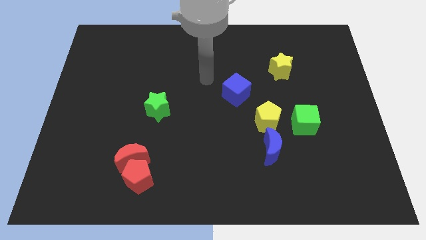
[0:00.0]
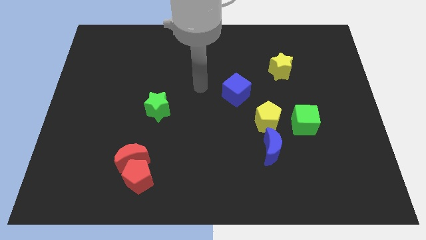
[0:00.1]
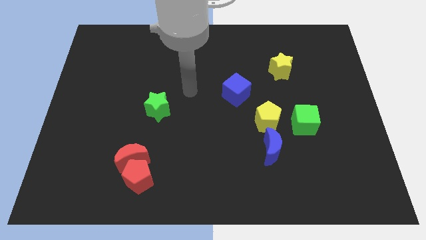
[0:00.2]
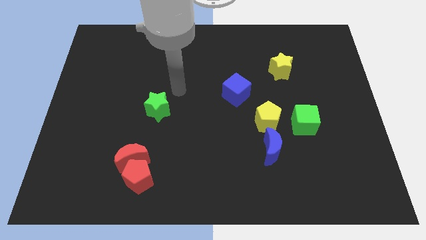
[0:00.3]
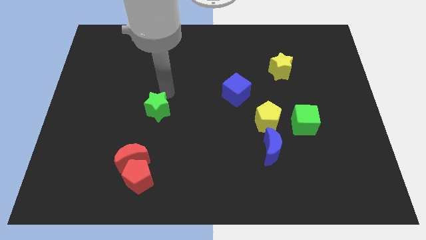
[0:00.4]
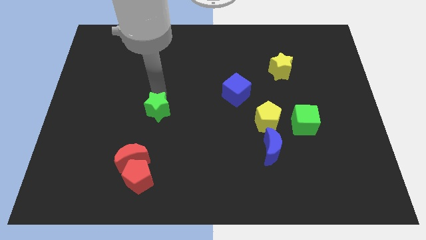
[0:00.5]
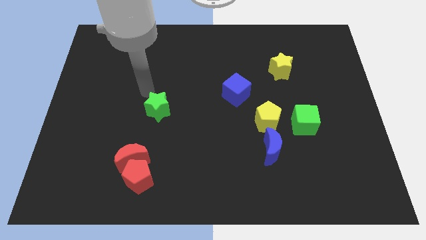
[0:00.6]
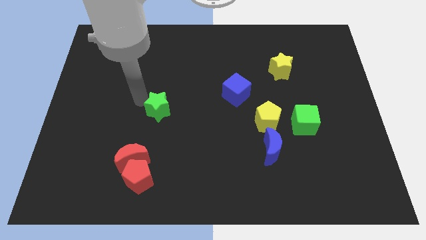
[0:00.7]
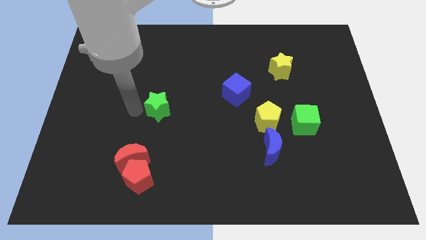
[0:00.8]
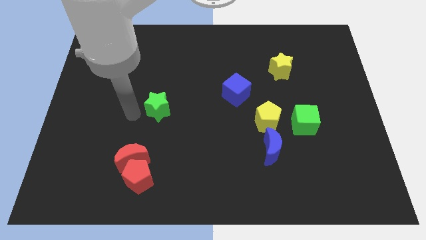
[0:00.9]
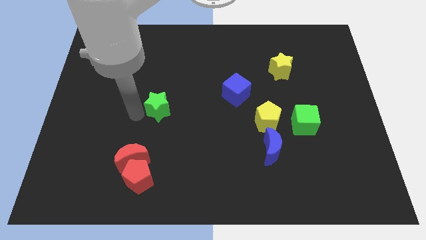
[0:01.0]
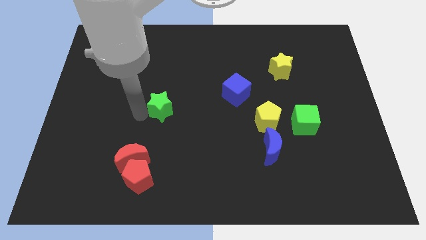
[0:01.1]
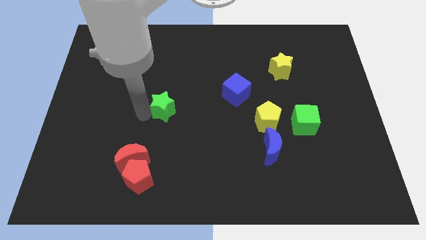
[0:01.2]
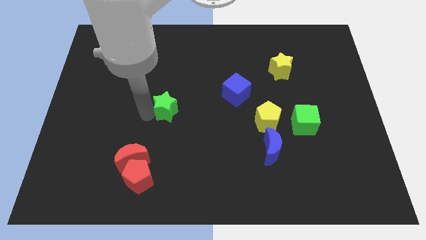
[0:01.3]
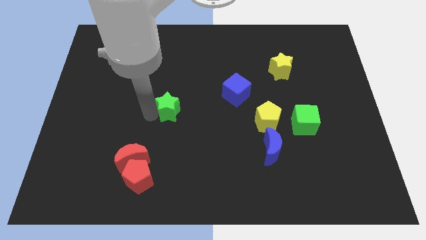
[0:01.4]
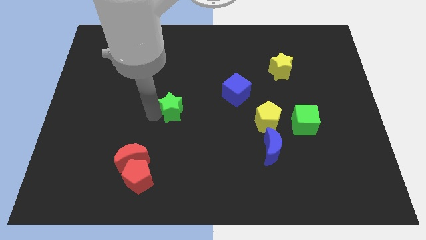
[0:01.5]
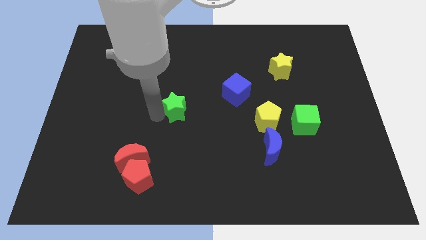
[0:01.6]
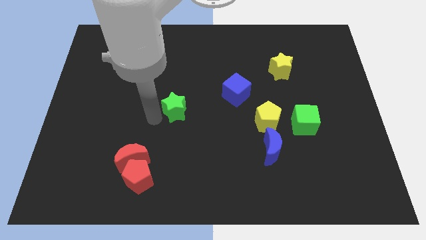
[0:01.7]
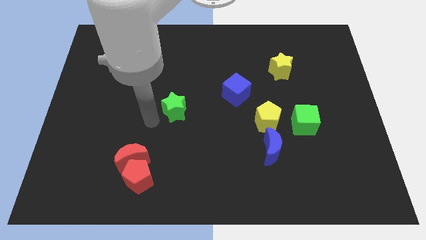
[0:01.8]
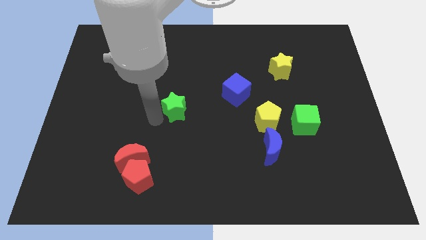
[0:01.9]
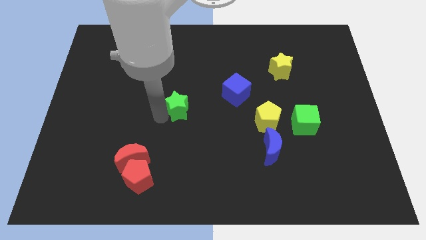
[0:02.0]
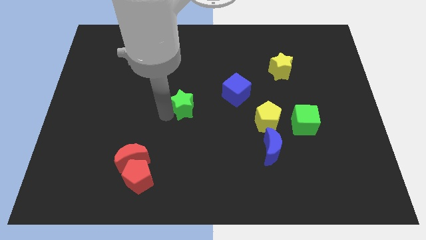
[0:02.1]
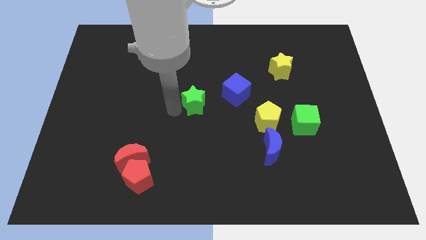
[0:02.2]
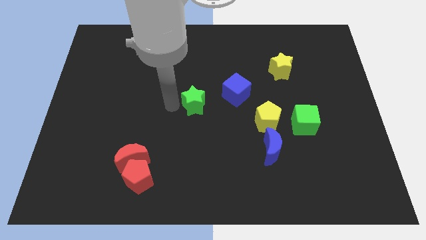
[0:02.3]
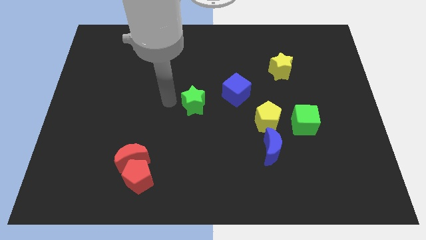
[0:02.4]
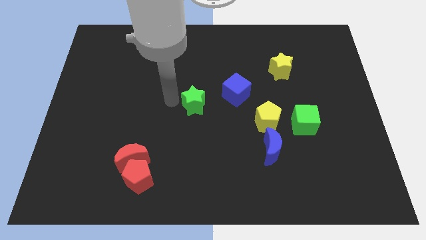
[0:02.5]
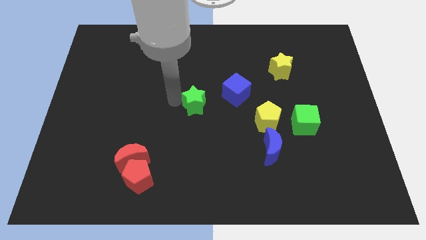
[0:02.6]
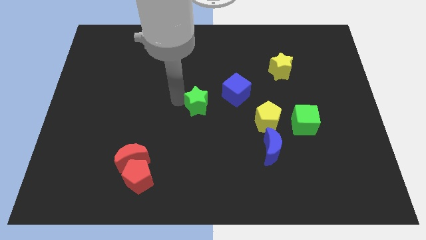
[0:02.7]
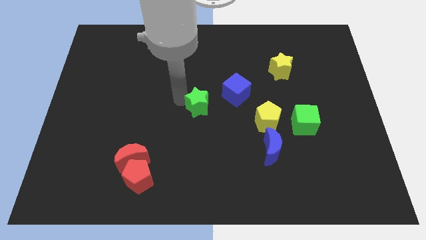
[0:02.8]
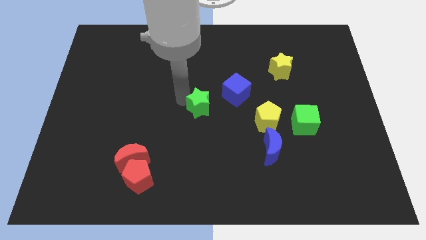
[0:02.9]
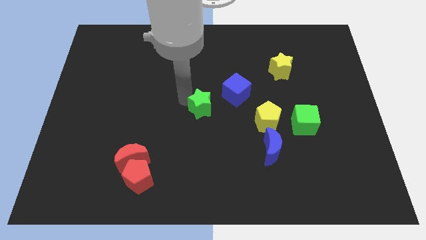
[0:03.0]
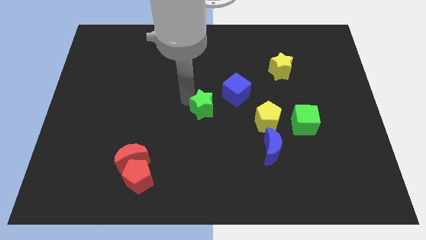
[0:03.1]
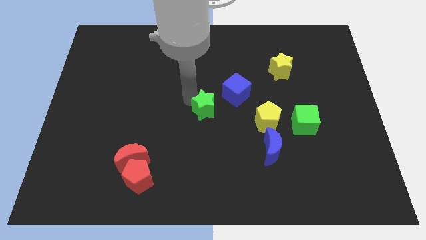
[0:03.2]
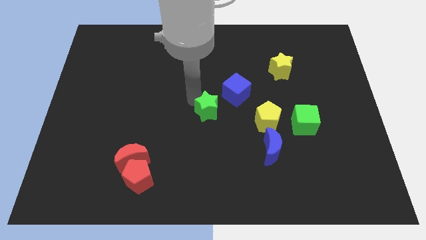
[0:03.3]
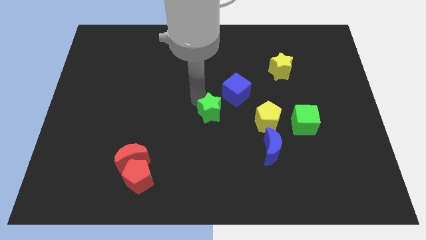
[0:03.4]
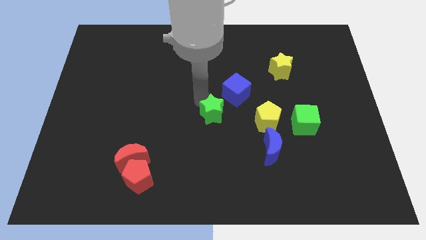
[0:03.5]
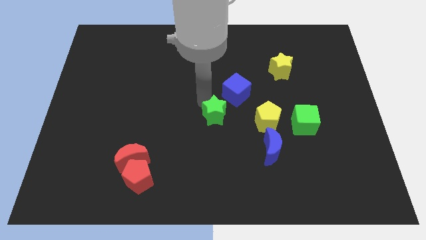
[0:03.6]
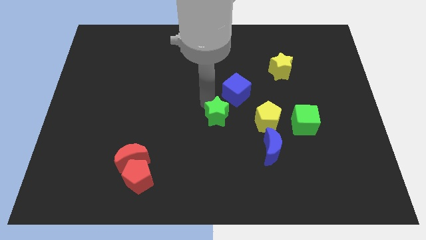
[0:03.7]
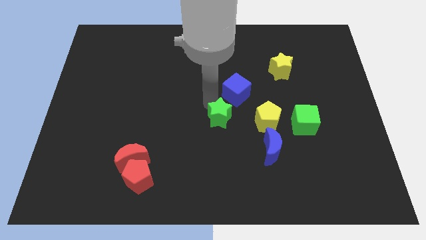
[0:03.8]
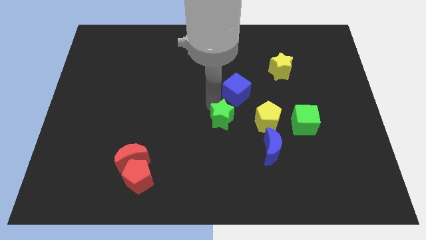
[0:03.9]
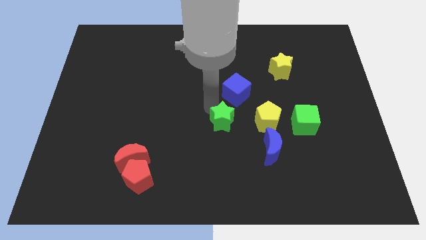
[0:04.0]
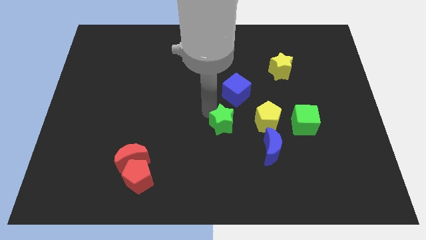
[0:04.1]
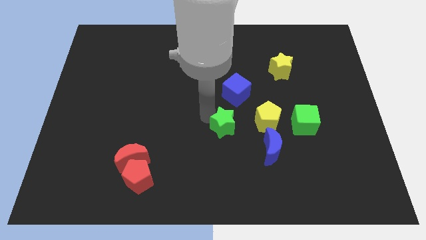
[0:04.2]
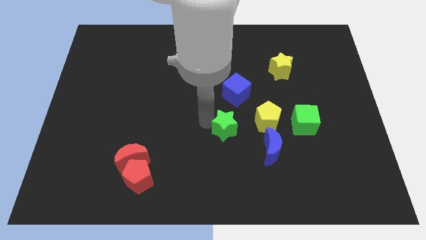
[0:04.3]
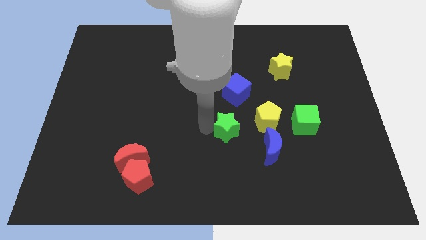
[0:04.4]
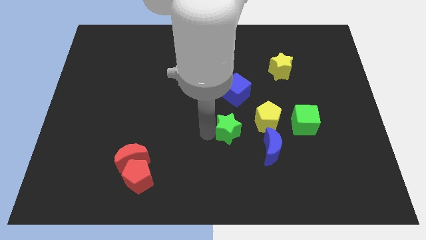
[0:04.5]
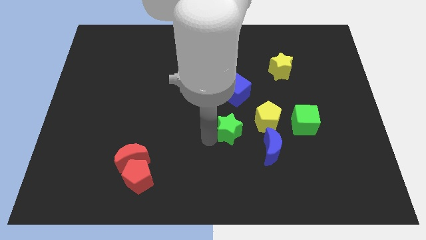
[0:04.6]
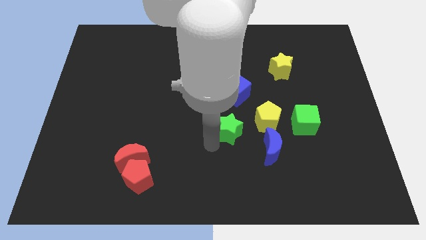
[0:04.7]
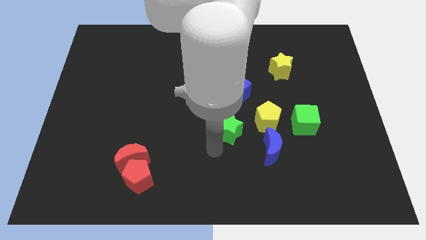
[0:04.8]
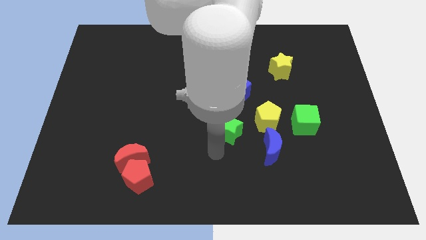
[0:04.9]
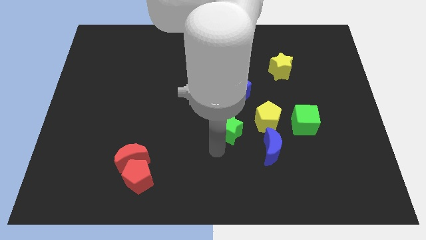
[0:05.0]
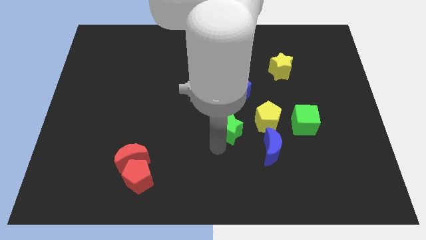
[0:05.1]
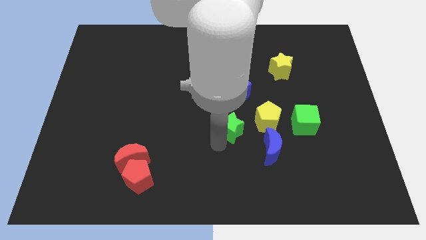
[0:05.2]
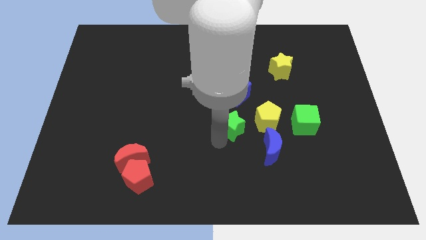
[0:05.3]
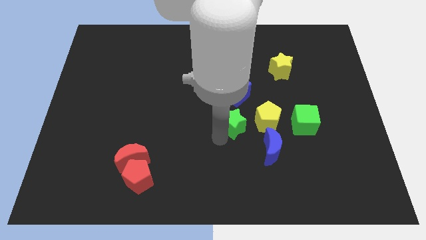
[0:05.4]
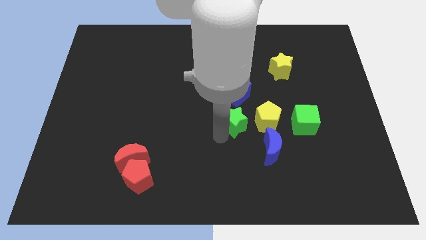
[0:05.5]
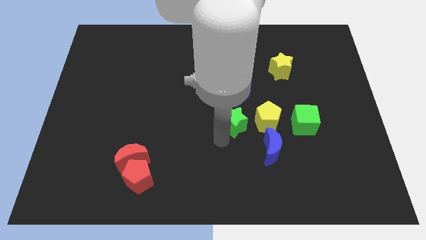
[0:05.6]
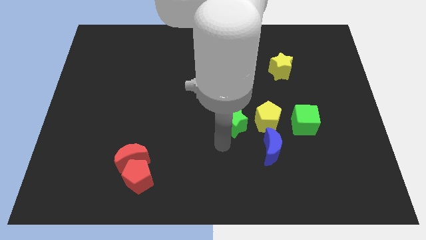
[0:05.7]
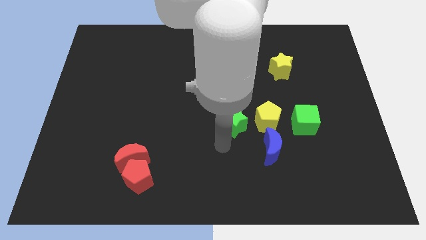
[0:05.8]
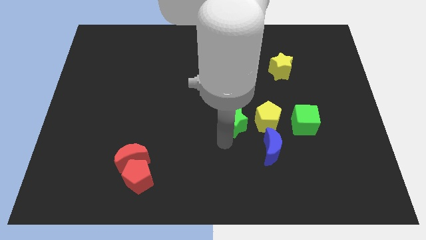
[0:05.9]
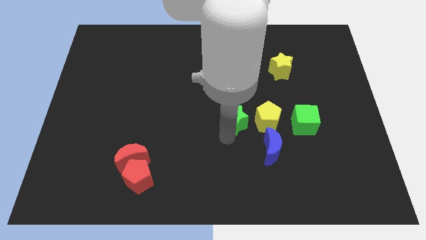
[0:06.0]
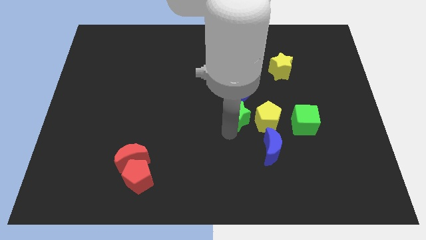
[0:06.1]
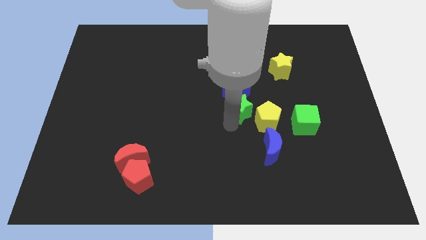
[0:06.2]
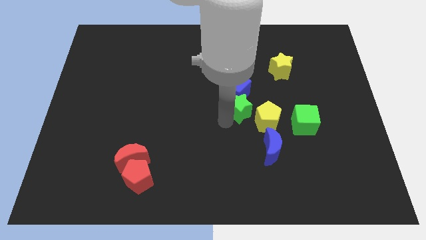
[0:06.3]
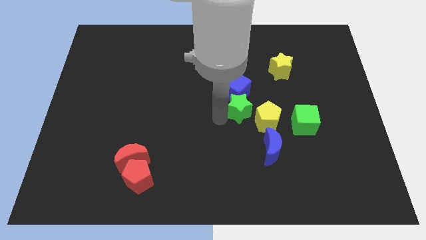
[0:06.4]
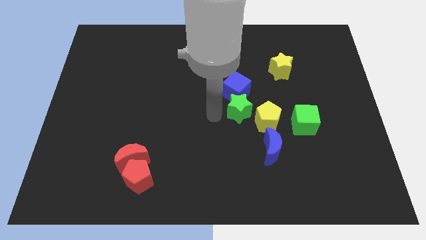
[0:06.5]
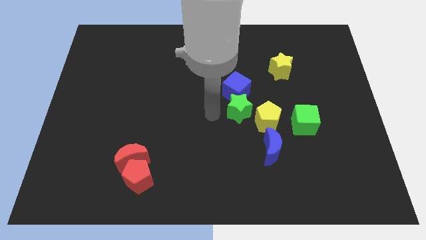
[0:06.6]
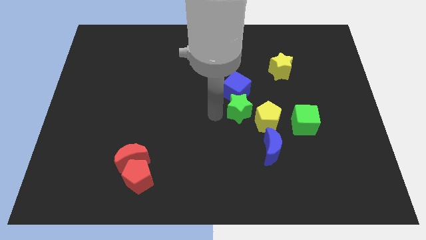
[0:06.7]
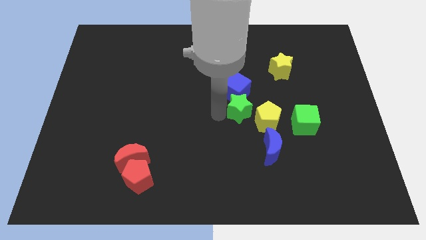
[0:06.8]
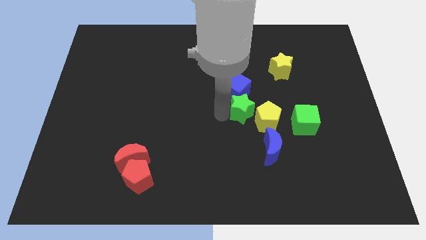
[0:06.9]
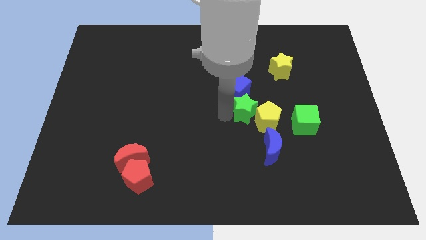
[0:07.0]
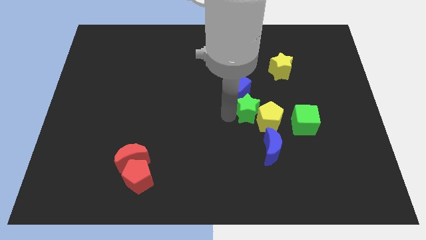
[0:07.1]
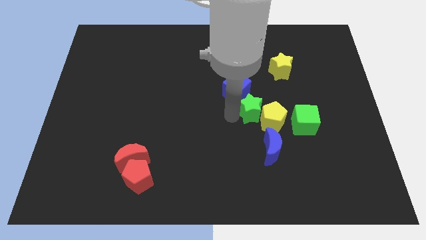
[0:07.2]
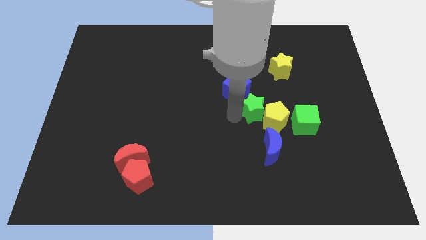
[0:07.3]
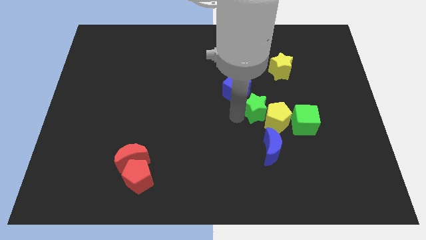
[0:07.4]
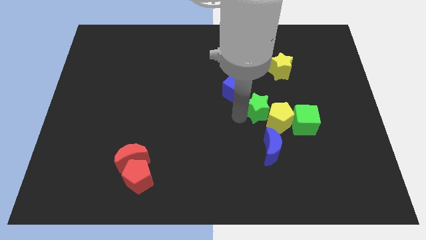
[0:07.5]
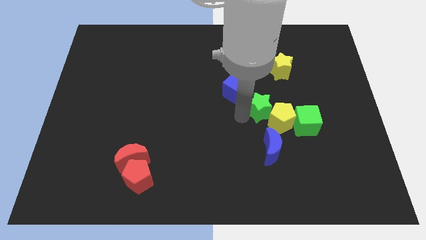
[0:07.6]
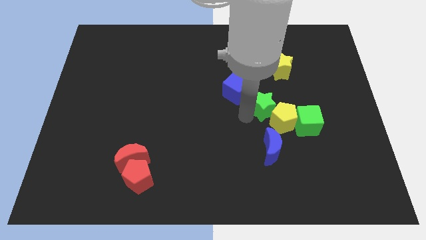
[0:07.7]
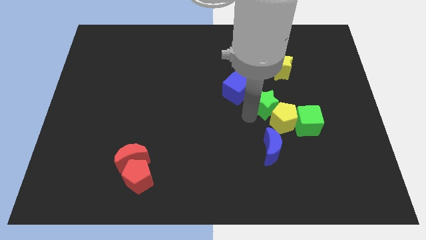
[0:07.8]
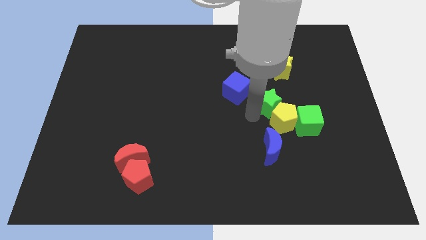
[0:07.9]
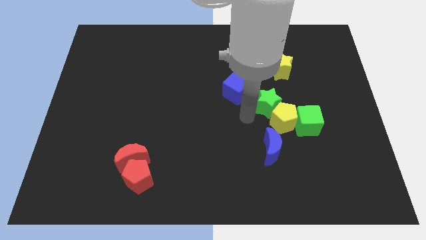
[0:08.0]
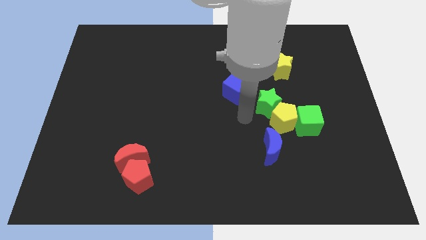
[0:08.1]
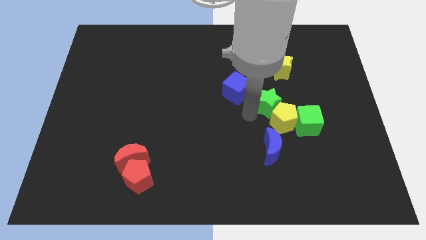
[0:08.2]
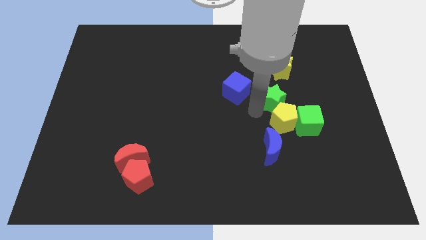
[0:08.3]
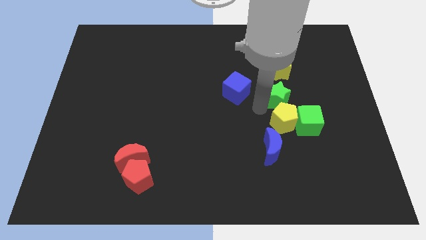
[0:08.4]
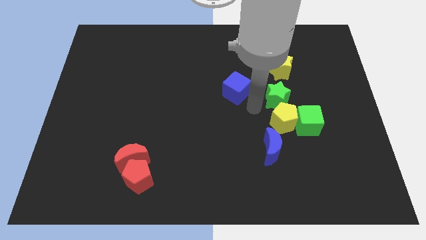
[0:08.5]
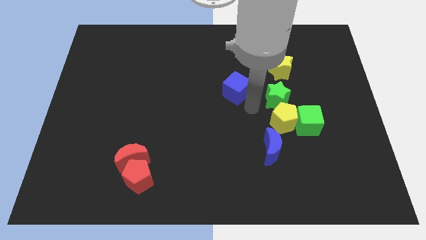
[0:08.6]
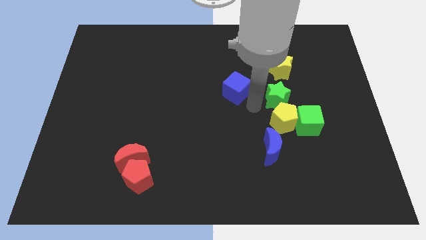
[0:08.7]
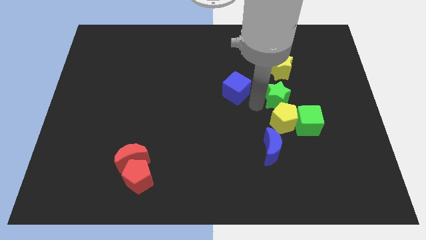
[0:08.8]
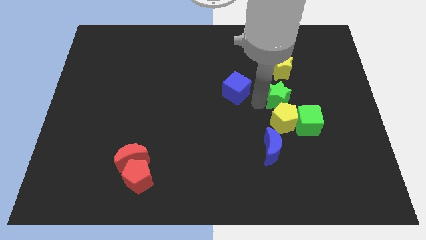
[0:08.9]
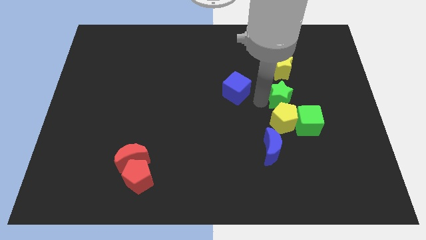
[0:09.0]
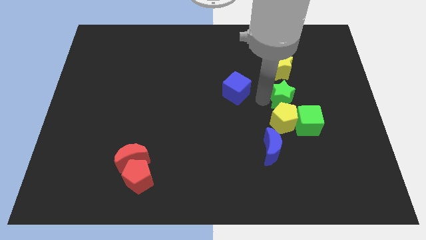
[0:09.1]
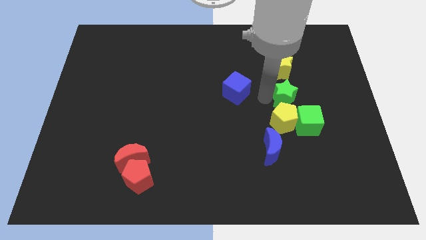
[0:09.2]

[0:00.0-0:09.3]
put the green star to the top side of the green cube
